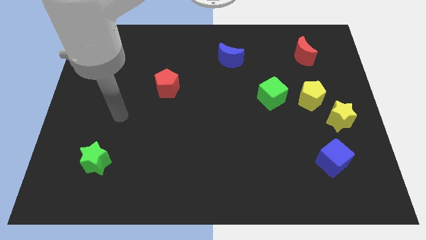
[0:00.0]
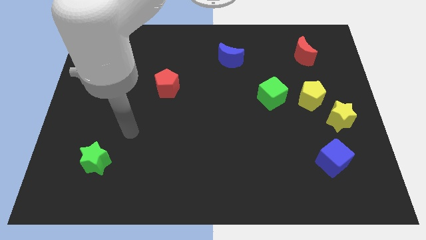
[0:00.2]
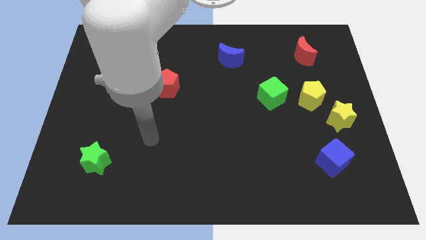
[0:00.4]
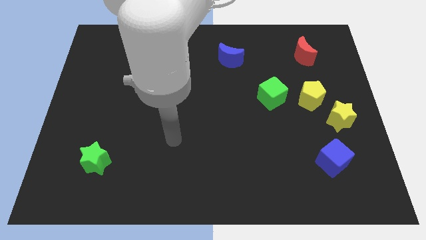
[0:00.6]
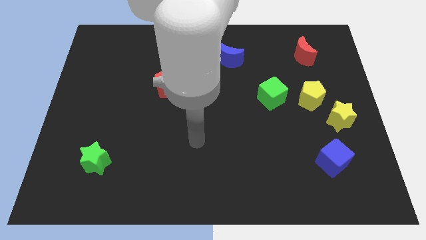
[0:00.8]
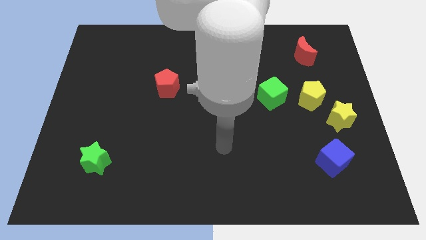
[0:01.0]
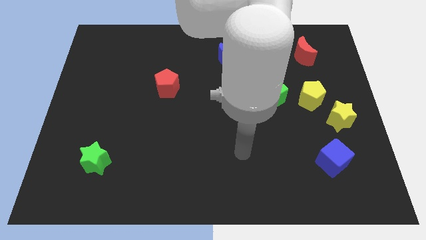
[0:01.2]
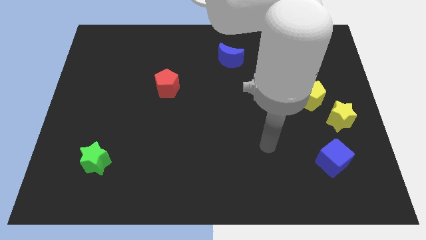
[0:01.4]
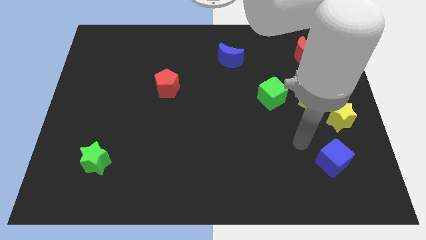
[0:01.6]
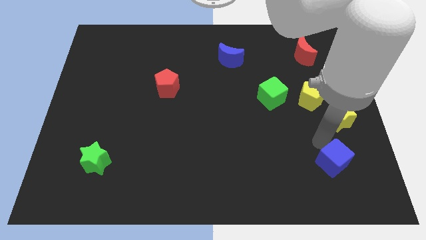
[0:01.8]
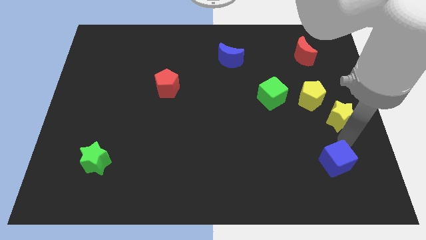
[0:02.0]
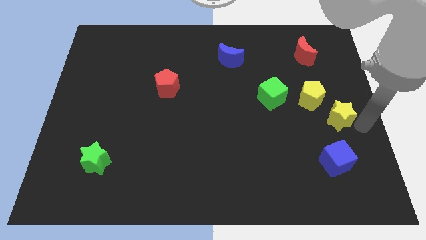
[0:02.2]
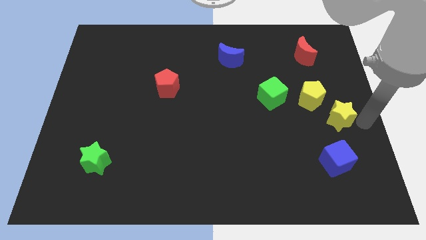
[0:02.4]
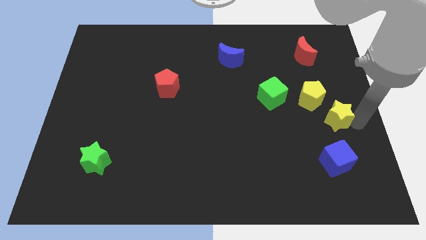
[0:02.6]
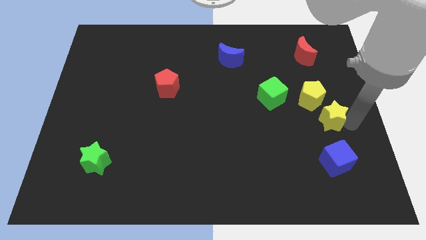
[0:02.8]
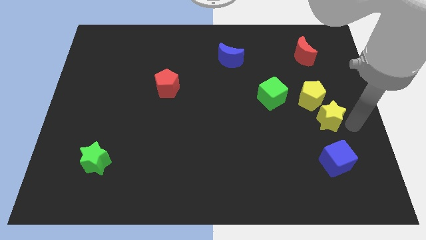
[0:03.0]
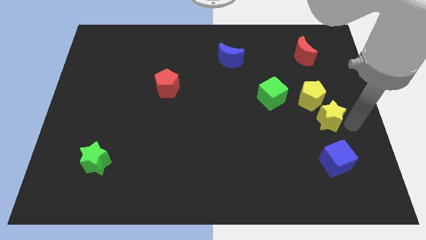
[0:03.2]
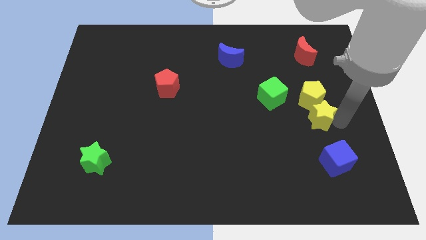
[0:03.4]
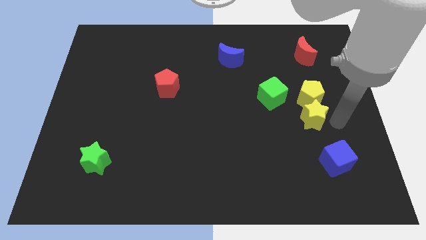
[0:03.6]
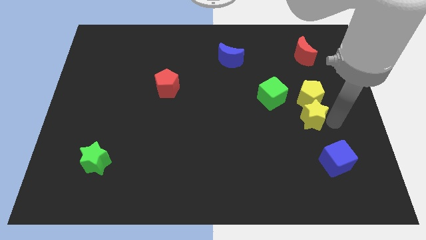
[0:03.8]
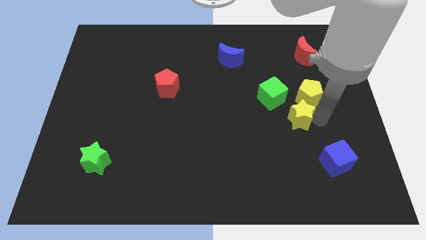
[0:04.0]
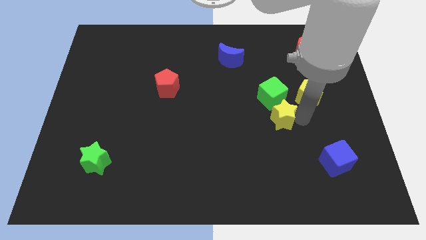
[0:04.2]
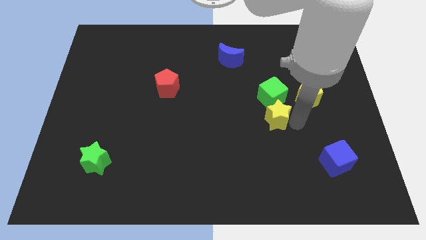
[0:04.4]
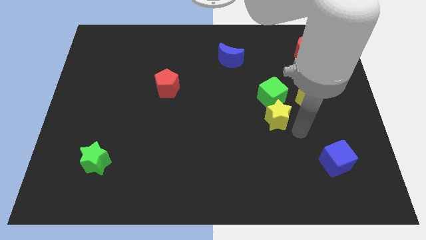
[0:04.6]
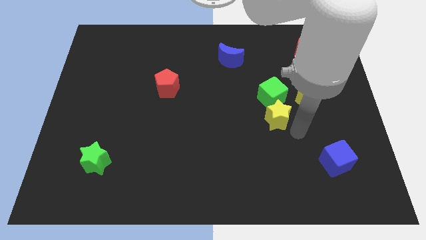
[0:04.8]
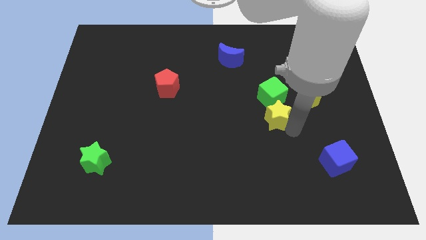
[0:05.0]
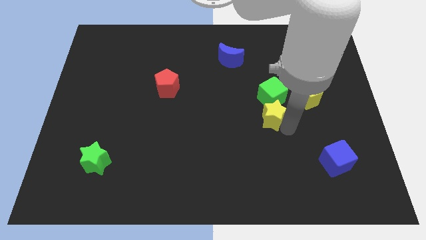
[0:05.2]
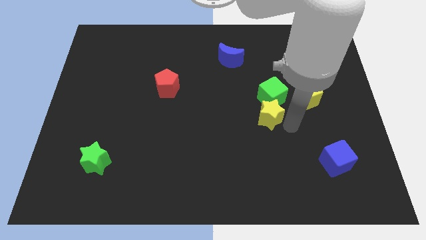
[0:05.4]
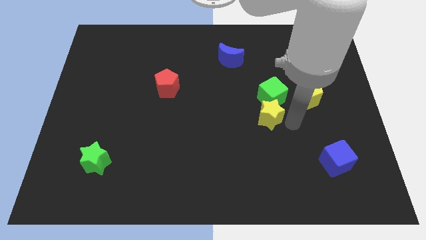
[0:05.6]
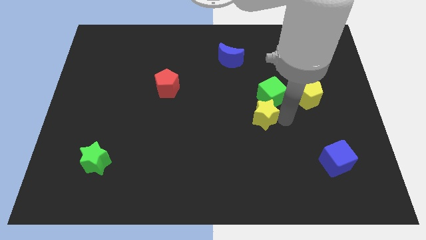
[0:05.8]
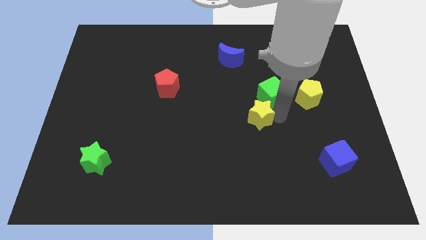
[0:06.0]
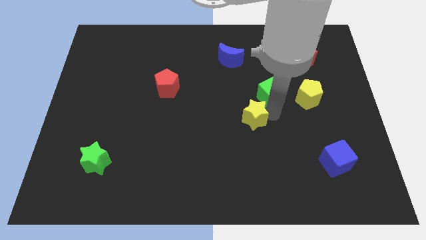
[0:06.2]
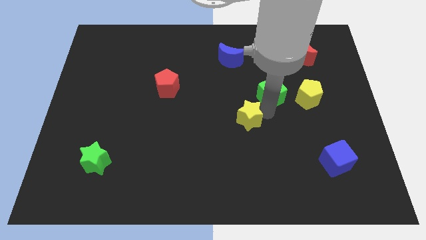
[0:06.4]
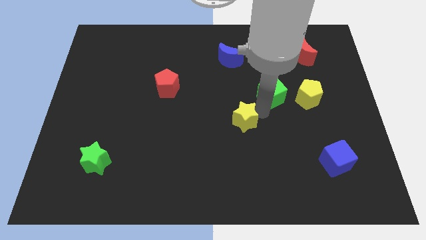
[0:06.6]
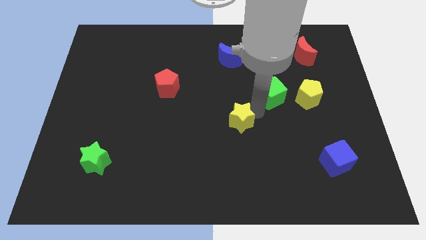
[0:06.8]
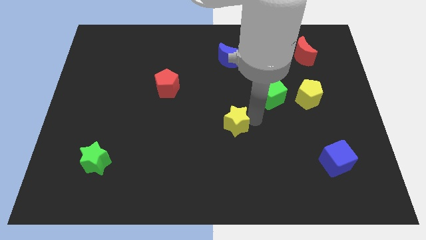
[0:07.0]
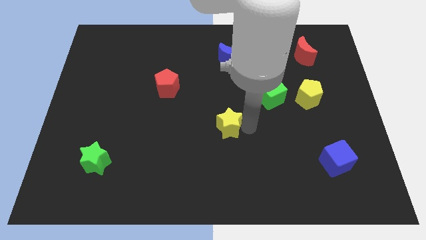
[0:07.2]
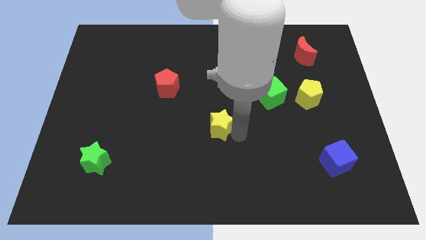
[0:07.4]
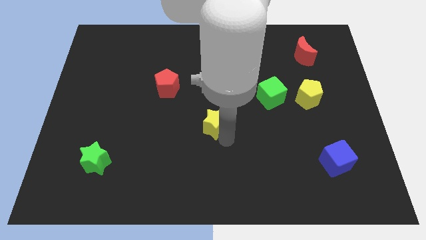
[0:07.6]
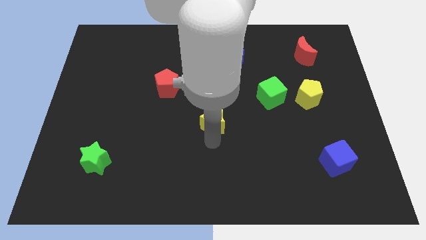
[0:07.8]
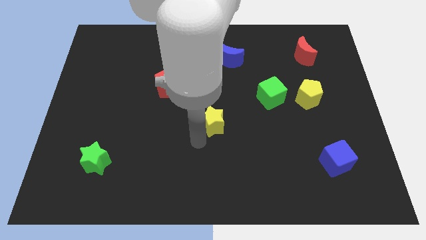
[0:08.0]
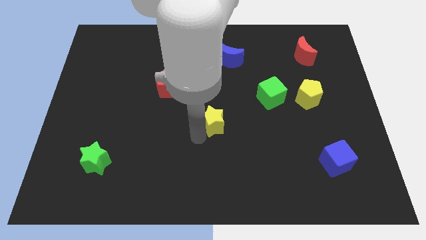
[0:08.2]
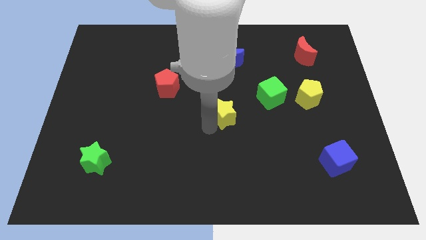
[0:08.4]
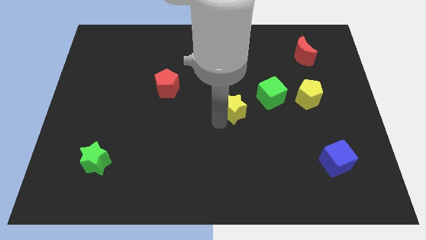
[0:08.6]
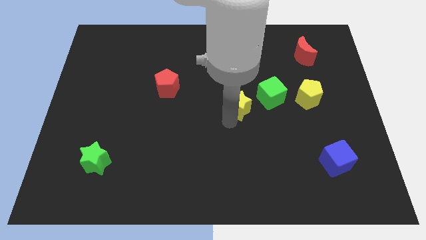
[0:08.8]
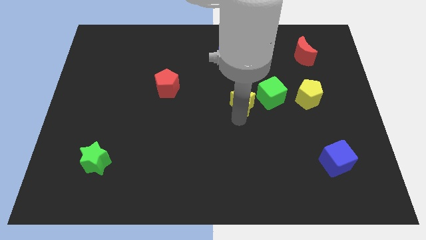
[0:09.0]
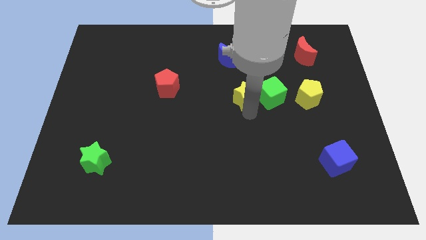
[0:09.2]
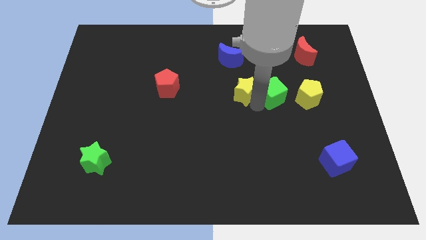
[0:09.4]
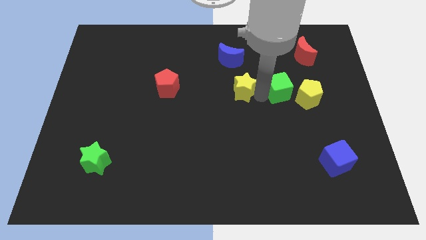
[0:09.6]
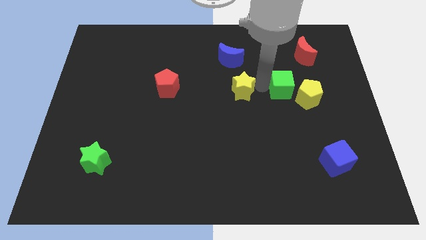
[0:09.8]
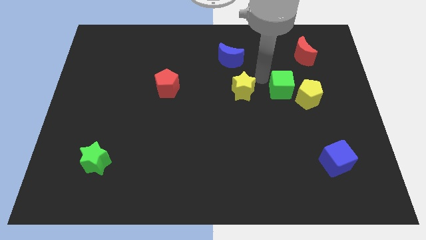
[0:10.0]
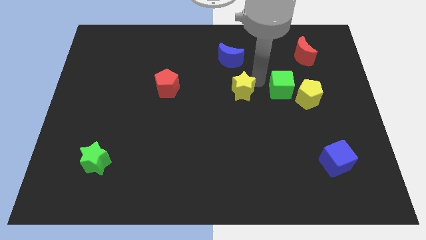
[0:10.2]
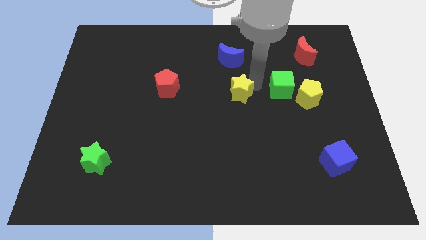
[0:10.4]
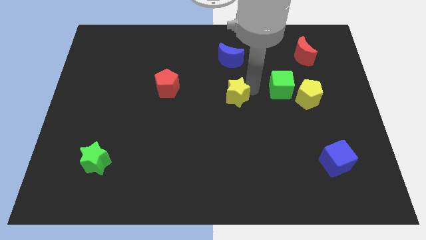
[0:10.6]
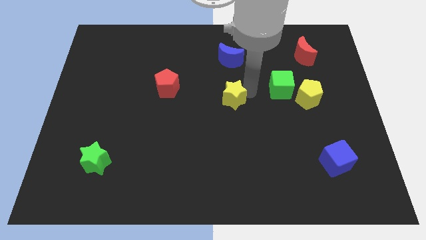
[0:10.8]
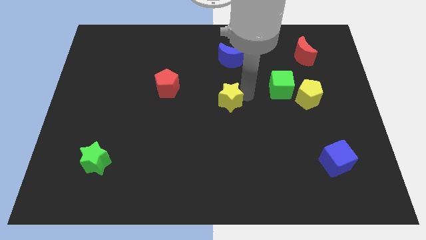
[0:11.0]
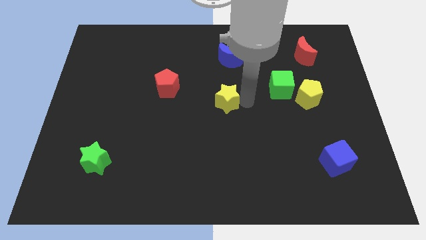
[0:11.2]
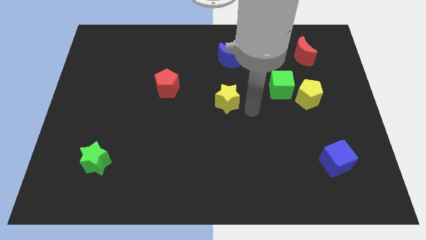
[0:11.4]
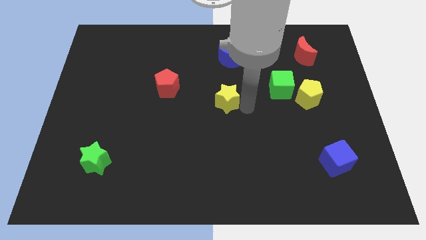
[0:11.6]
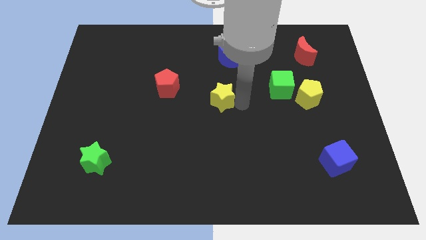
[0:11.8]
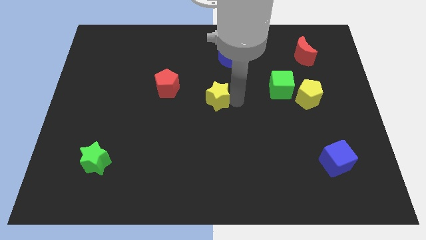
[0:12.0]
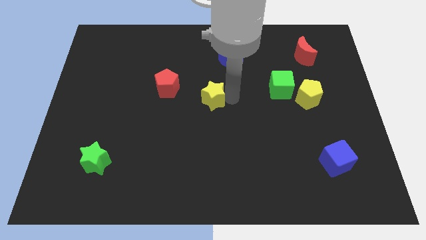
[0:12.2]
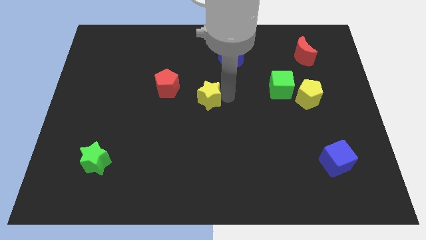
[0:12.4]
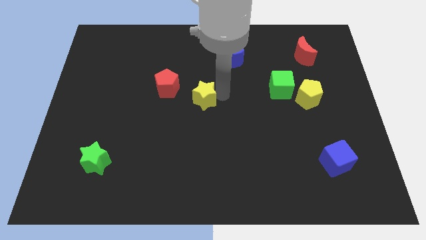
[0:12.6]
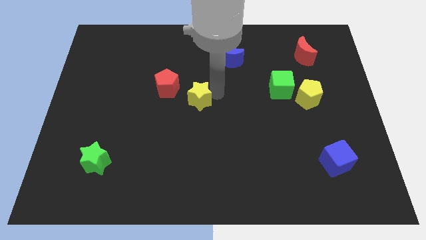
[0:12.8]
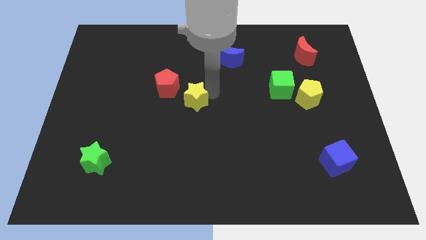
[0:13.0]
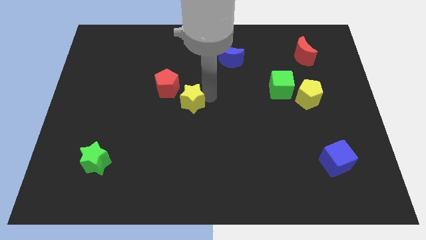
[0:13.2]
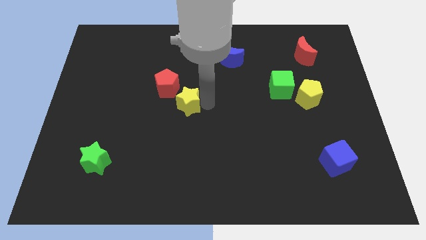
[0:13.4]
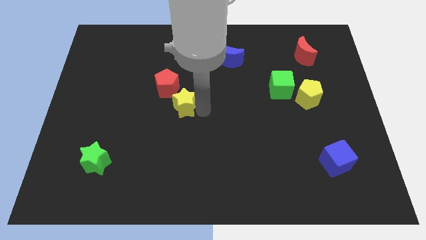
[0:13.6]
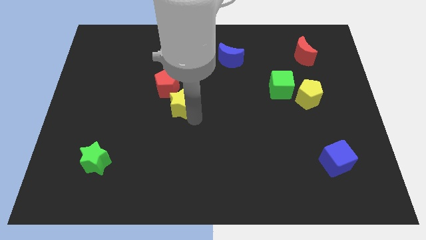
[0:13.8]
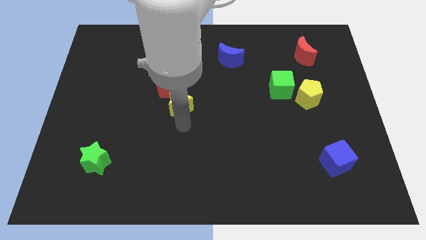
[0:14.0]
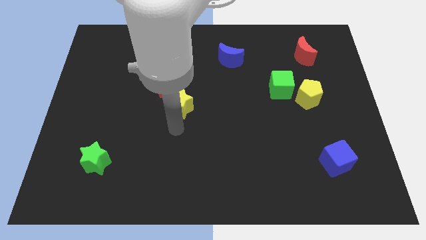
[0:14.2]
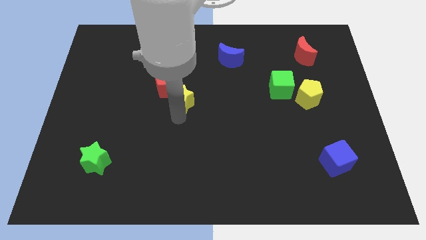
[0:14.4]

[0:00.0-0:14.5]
slide the yellow star next to the red pentagon
